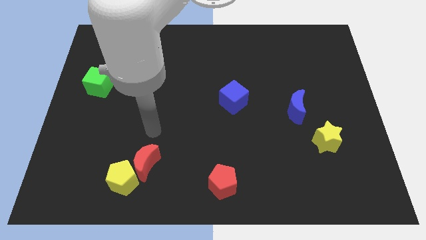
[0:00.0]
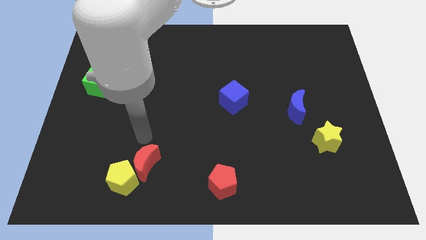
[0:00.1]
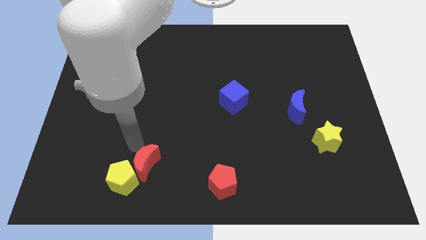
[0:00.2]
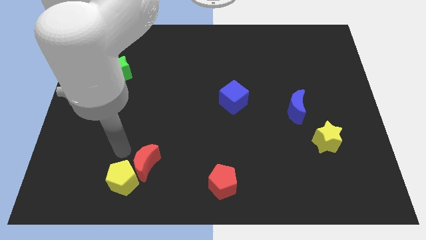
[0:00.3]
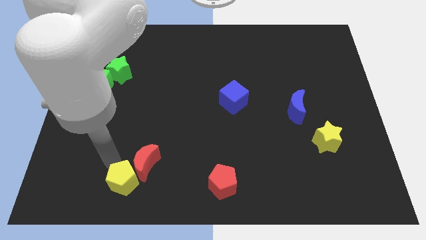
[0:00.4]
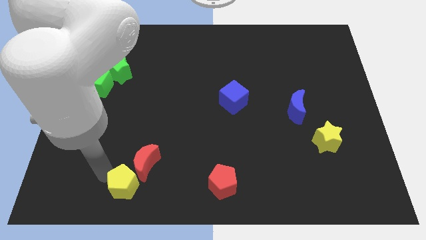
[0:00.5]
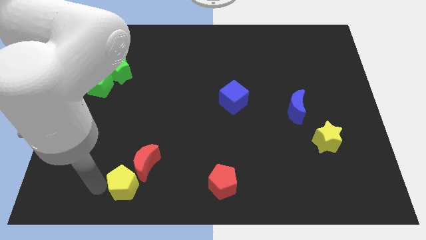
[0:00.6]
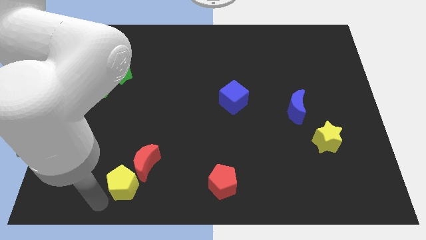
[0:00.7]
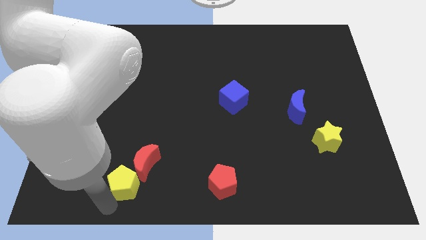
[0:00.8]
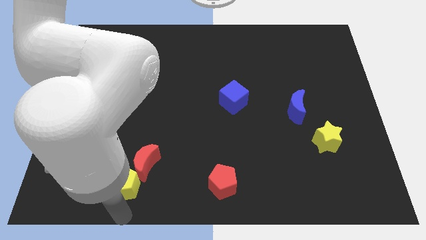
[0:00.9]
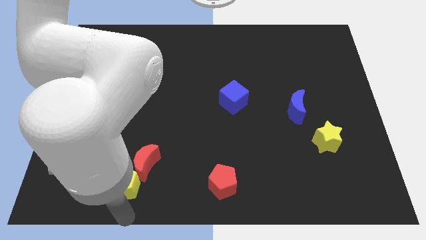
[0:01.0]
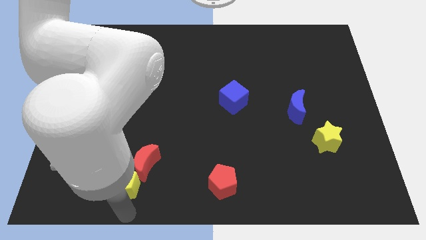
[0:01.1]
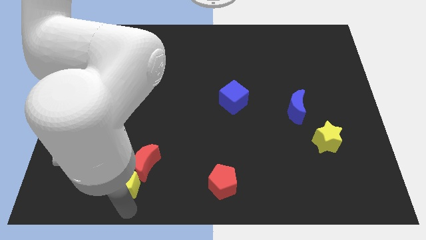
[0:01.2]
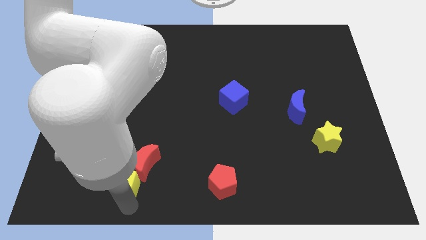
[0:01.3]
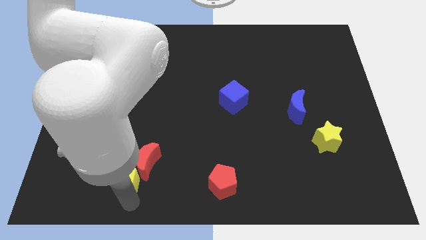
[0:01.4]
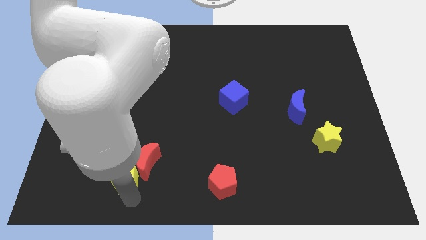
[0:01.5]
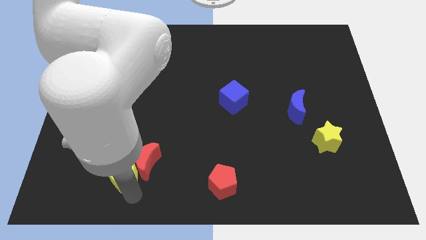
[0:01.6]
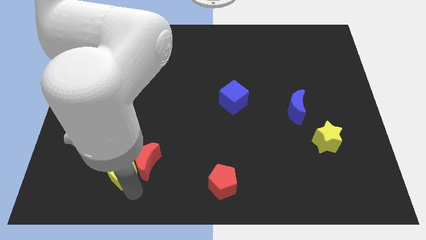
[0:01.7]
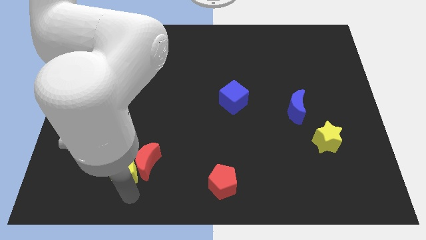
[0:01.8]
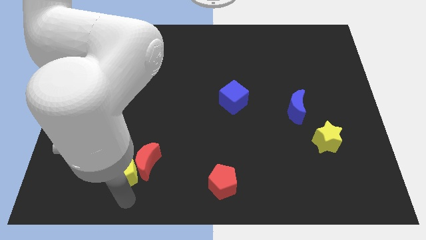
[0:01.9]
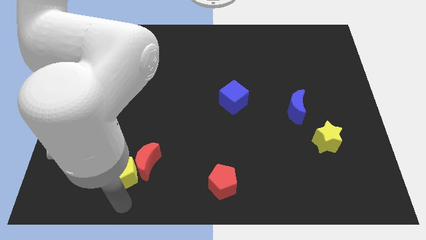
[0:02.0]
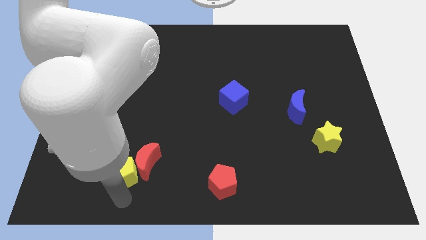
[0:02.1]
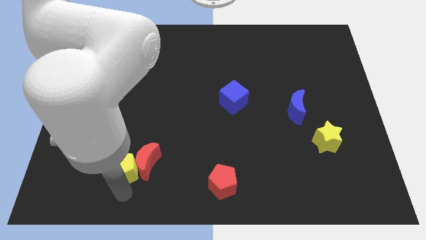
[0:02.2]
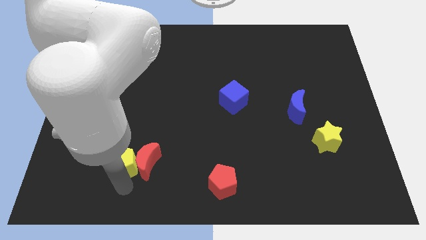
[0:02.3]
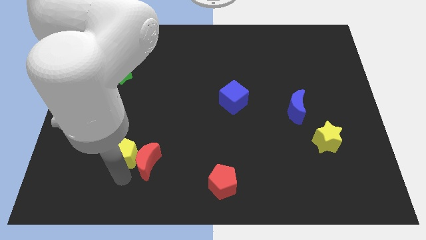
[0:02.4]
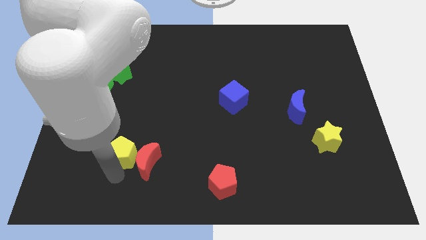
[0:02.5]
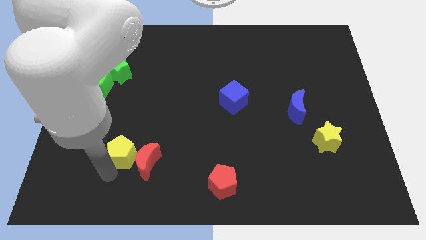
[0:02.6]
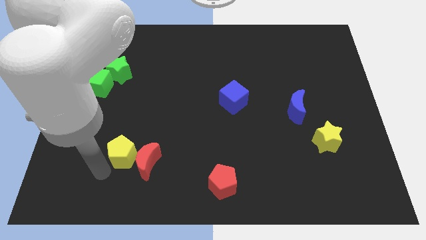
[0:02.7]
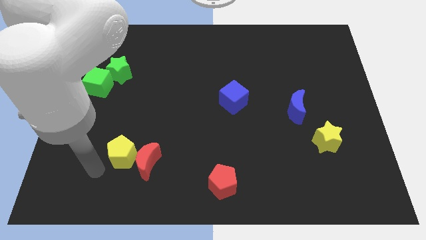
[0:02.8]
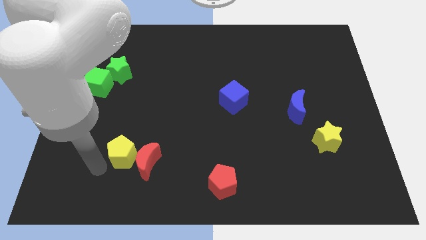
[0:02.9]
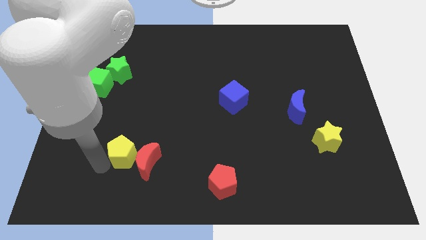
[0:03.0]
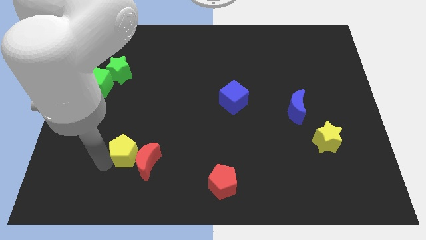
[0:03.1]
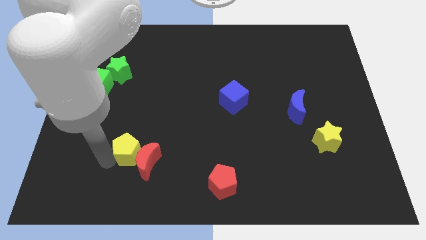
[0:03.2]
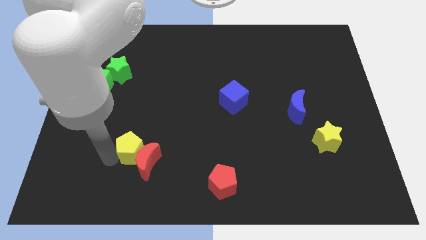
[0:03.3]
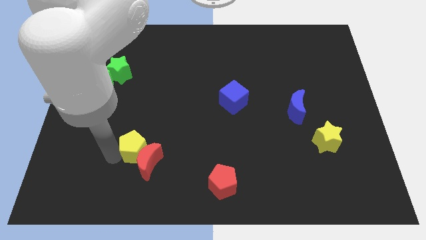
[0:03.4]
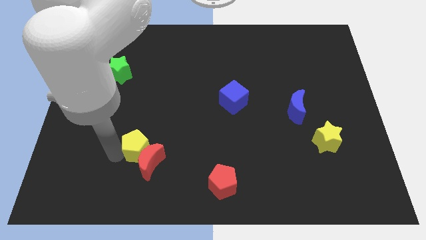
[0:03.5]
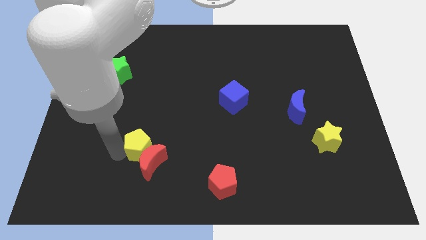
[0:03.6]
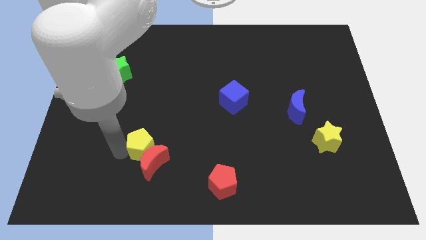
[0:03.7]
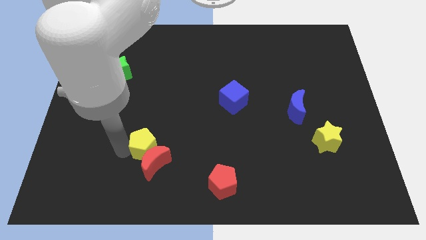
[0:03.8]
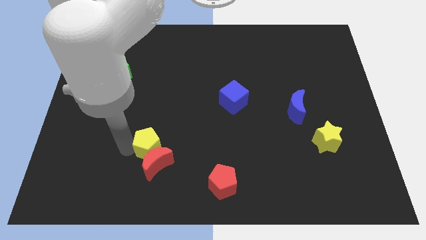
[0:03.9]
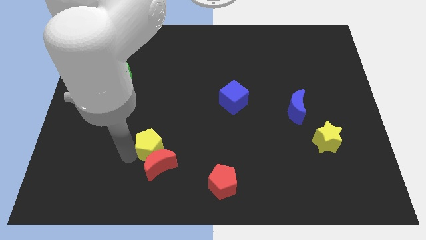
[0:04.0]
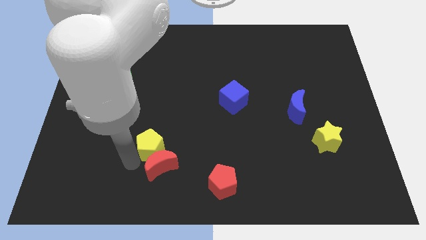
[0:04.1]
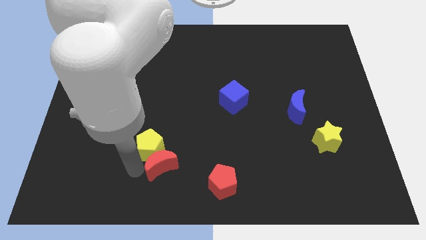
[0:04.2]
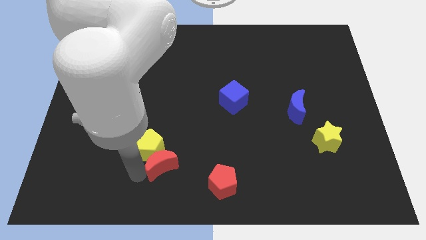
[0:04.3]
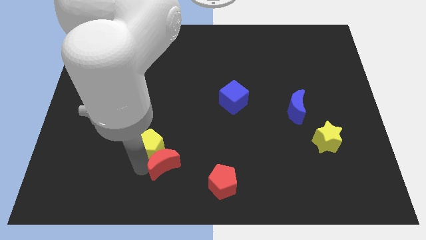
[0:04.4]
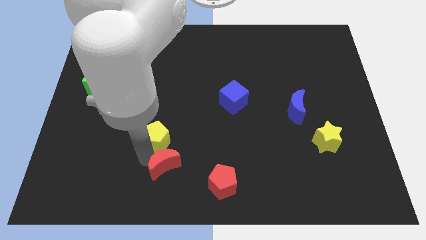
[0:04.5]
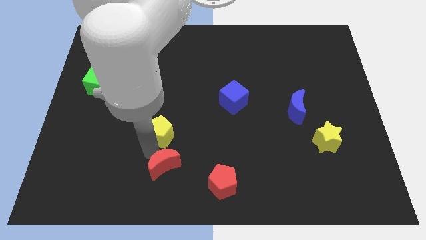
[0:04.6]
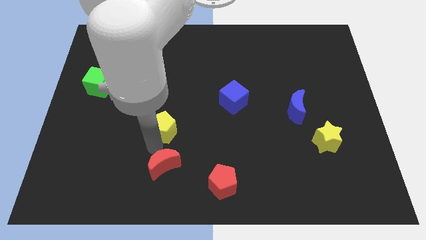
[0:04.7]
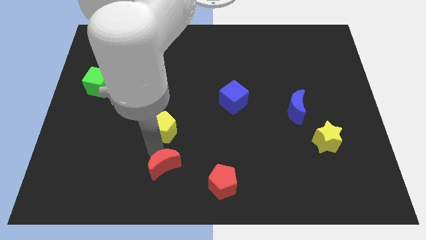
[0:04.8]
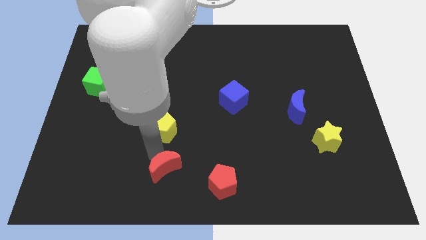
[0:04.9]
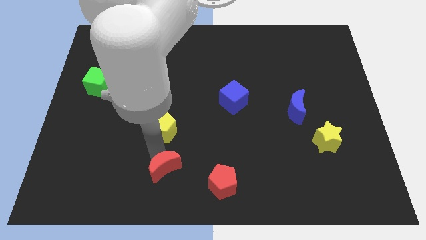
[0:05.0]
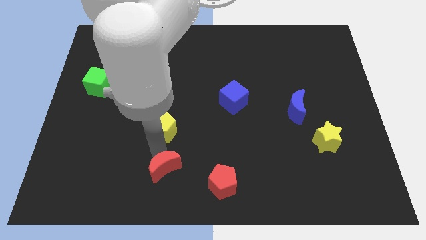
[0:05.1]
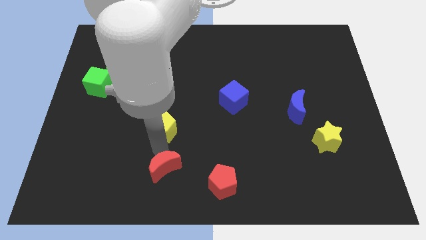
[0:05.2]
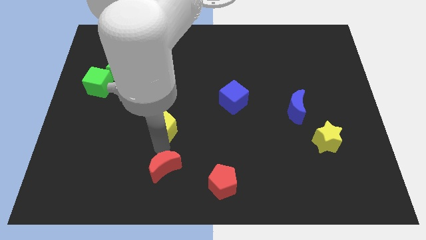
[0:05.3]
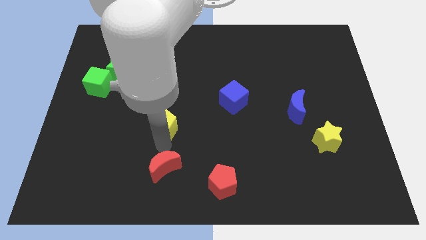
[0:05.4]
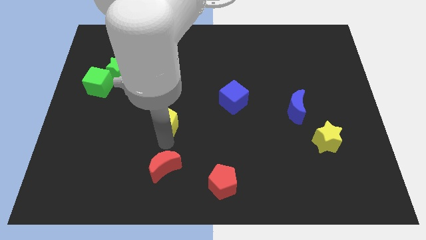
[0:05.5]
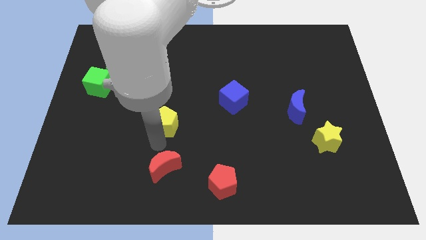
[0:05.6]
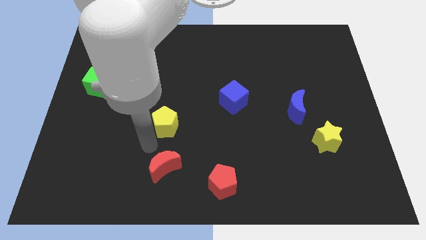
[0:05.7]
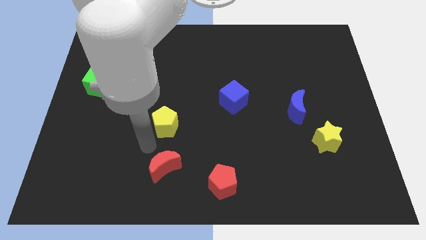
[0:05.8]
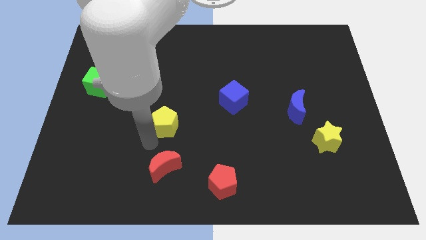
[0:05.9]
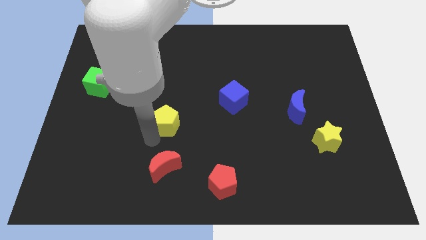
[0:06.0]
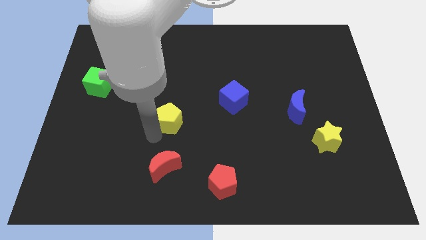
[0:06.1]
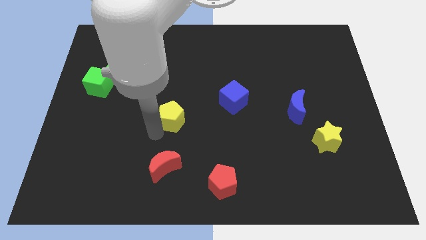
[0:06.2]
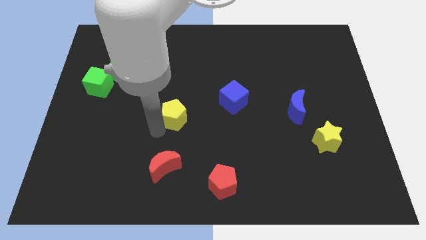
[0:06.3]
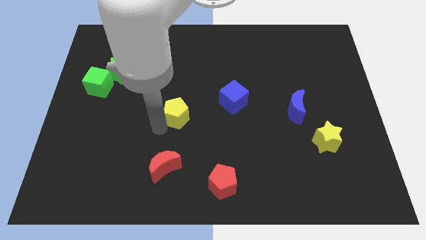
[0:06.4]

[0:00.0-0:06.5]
slide the yellow pentagon to the left of the blue cube
